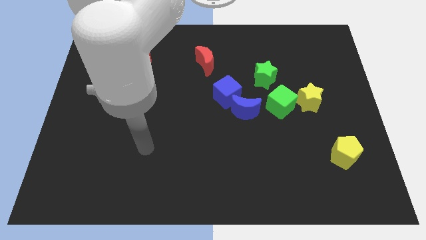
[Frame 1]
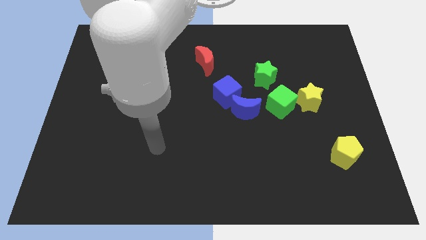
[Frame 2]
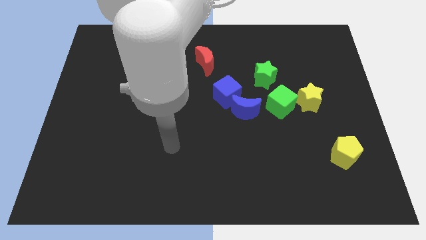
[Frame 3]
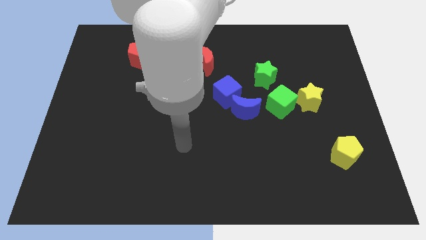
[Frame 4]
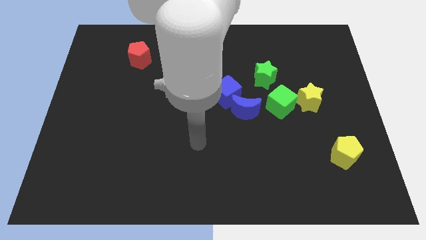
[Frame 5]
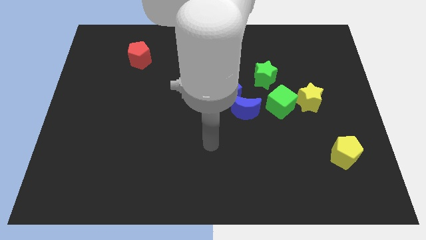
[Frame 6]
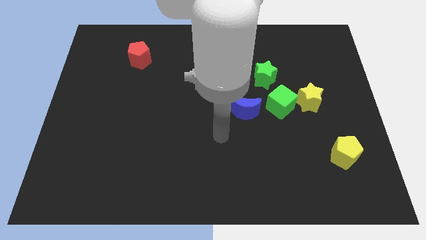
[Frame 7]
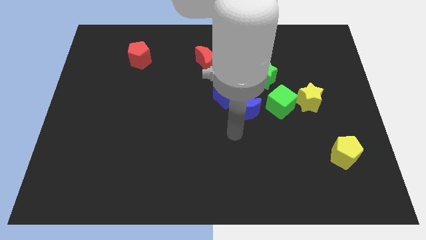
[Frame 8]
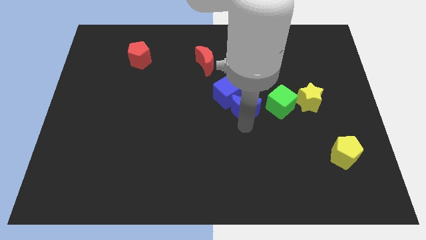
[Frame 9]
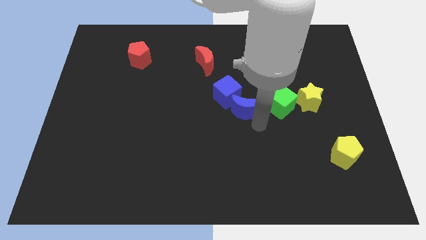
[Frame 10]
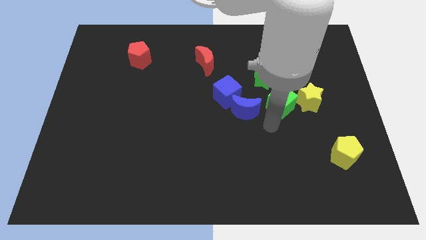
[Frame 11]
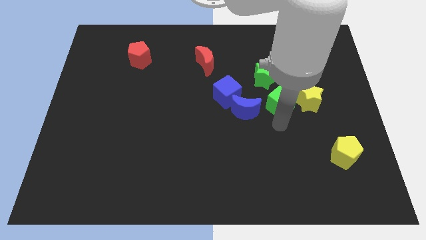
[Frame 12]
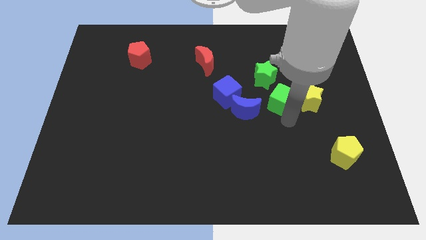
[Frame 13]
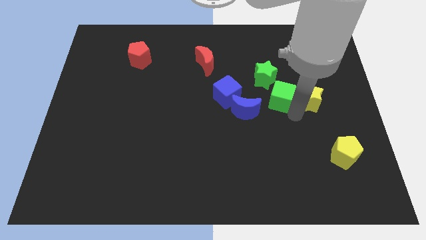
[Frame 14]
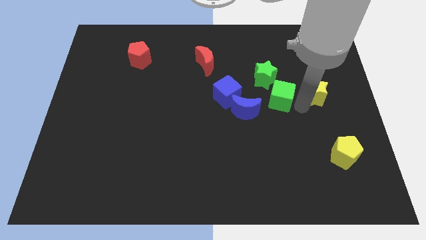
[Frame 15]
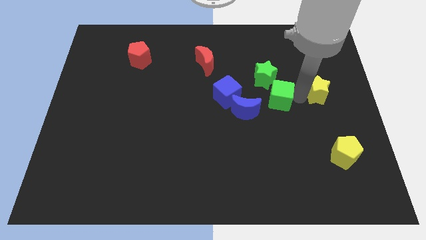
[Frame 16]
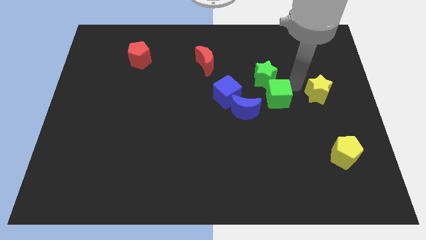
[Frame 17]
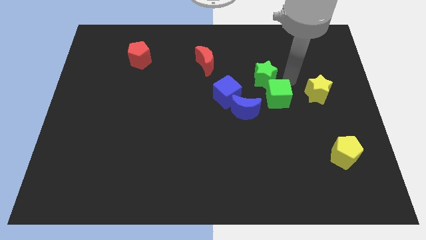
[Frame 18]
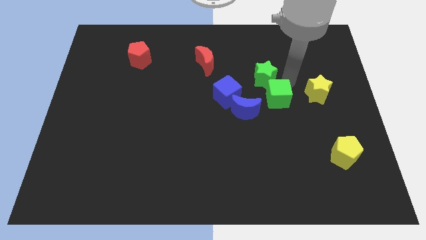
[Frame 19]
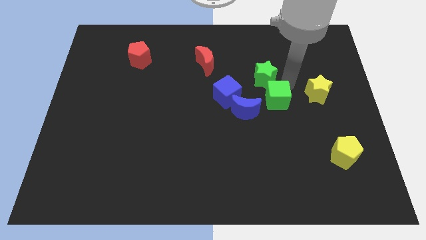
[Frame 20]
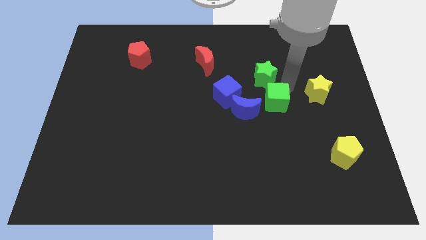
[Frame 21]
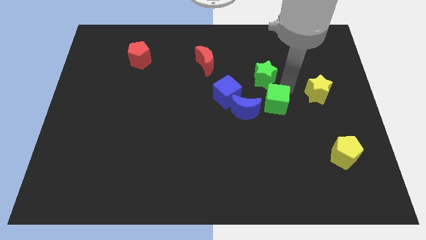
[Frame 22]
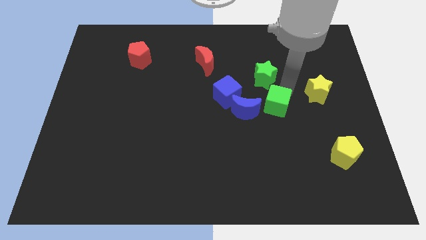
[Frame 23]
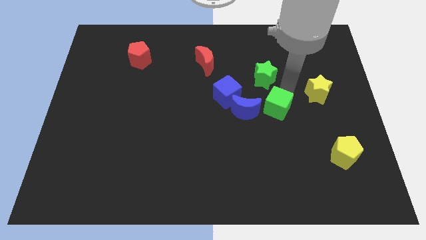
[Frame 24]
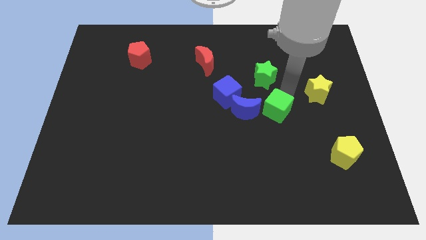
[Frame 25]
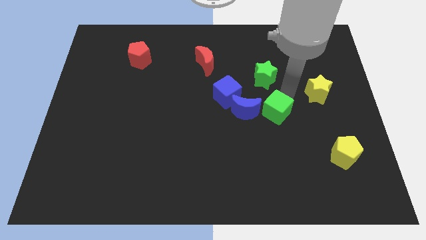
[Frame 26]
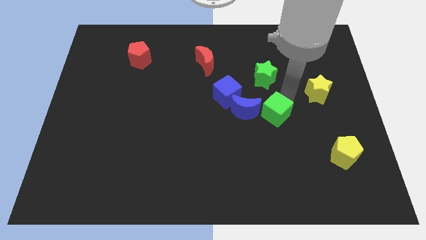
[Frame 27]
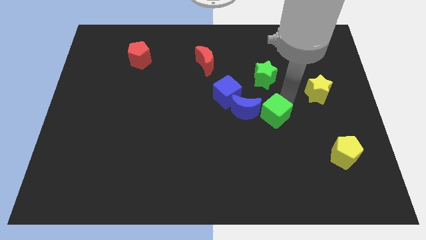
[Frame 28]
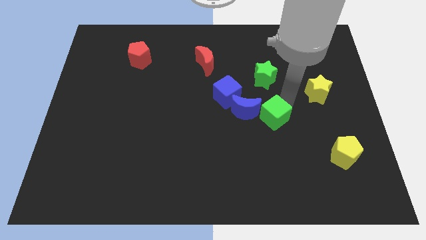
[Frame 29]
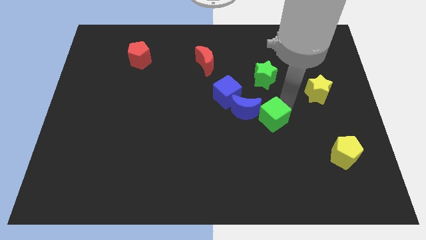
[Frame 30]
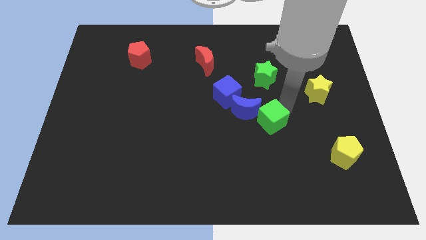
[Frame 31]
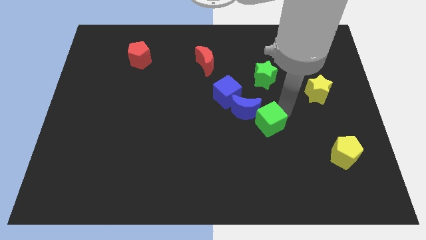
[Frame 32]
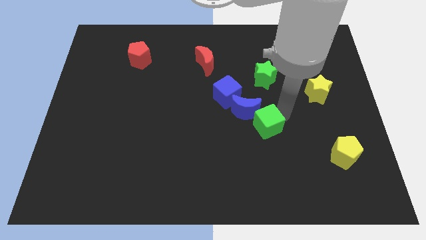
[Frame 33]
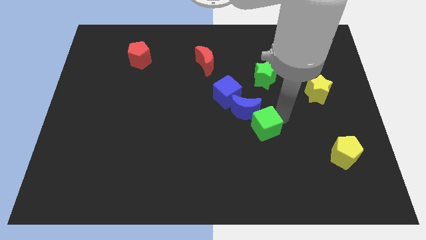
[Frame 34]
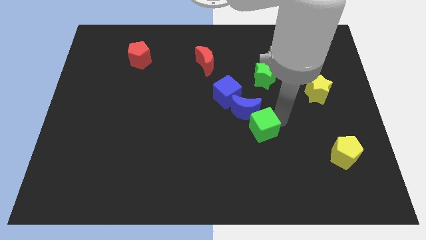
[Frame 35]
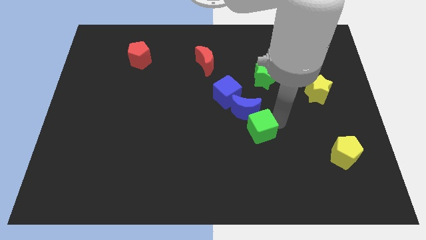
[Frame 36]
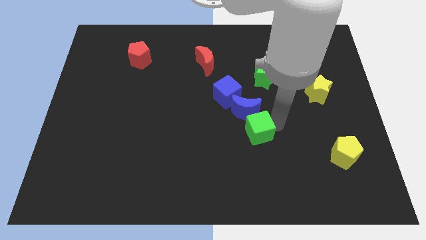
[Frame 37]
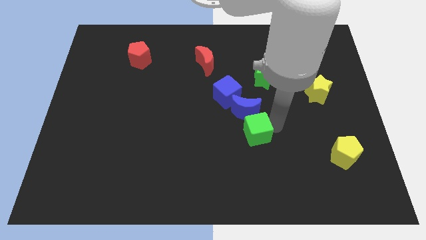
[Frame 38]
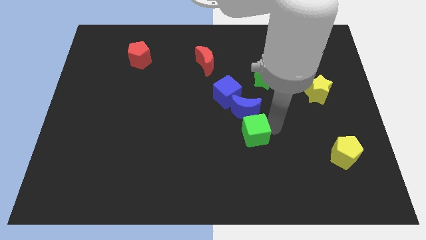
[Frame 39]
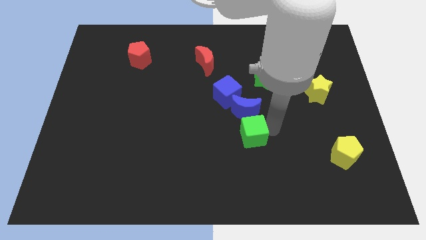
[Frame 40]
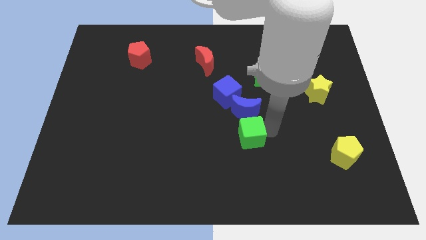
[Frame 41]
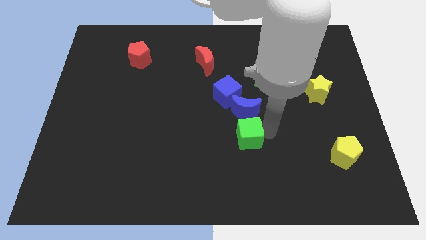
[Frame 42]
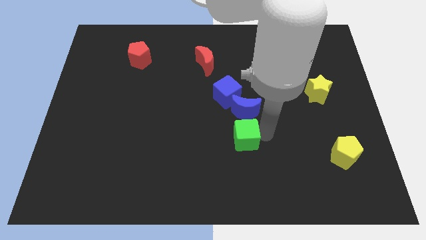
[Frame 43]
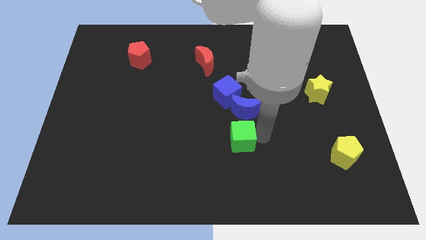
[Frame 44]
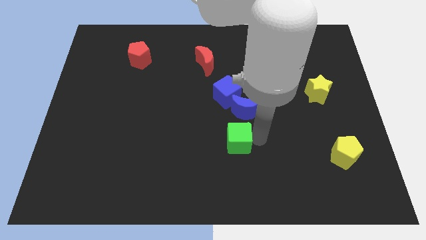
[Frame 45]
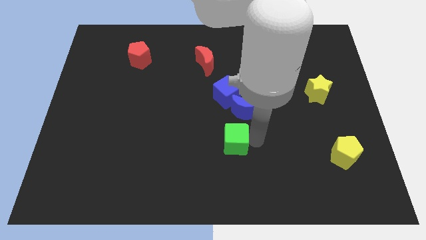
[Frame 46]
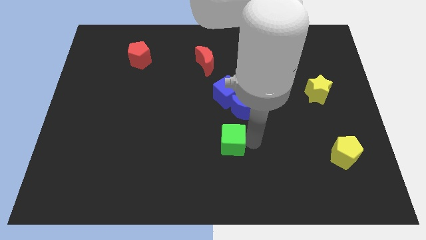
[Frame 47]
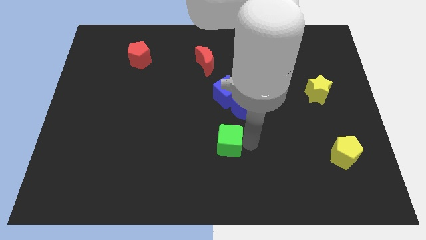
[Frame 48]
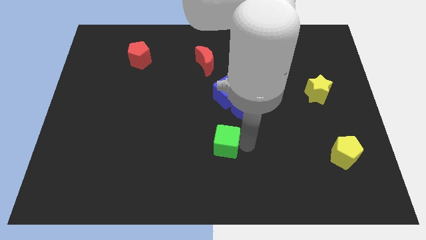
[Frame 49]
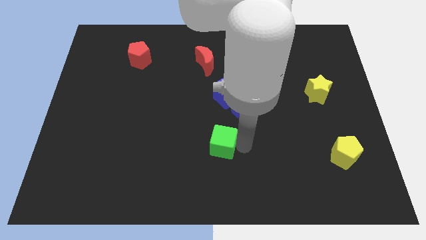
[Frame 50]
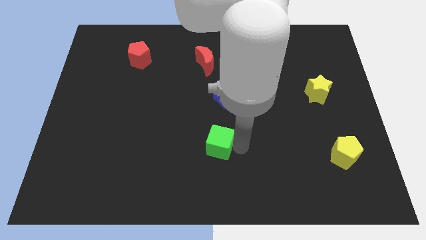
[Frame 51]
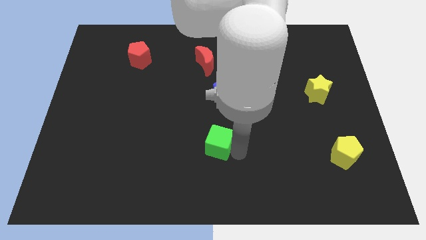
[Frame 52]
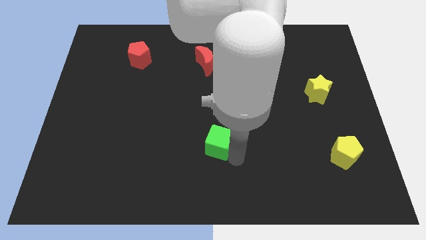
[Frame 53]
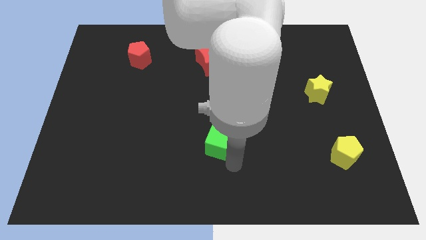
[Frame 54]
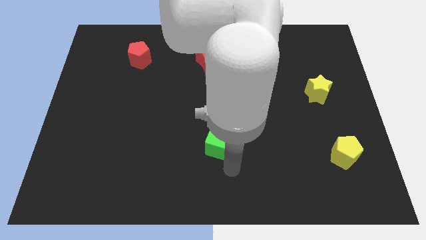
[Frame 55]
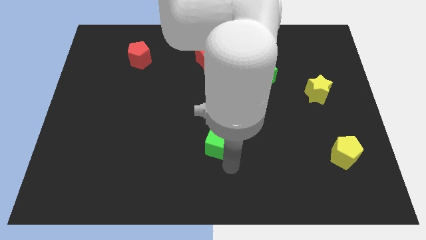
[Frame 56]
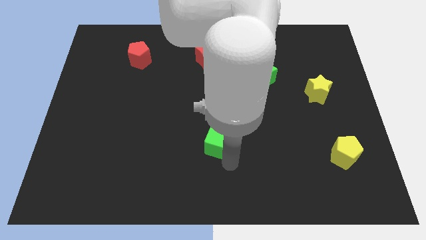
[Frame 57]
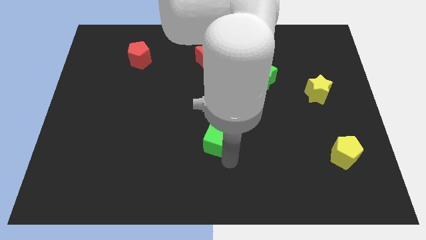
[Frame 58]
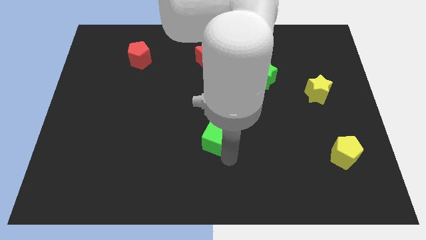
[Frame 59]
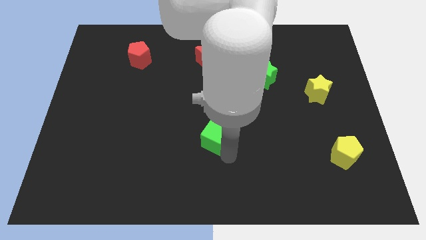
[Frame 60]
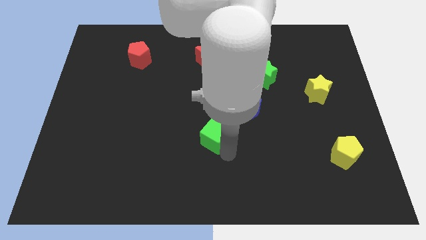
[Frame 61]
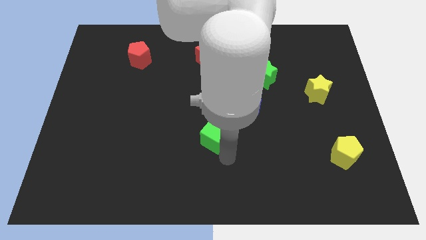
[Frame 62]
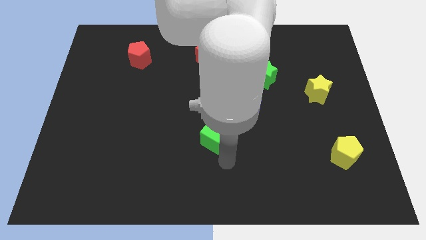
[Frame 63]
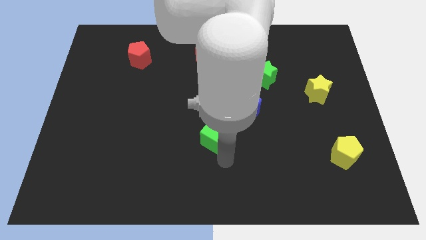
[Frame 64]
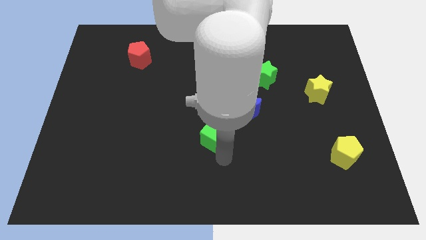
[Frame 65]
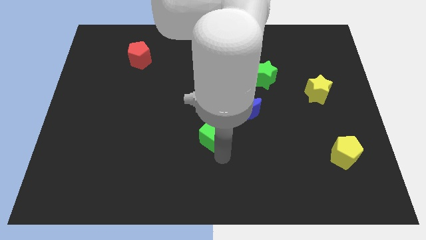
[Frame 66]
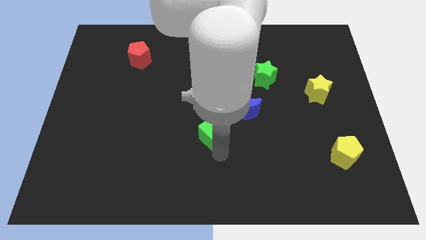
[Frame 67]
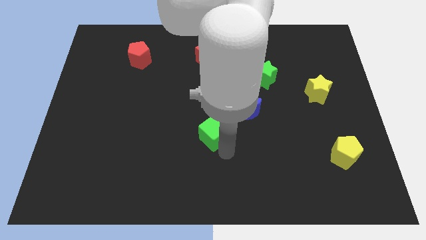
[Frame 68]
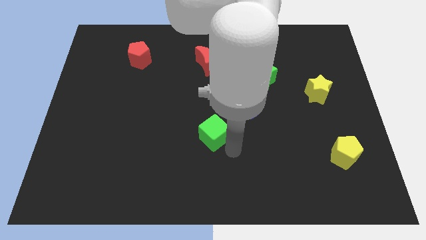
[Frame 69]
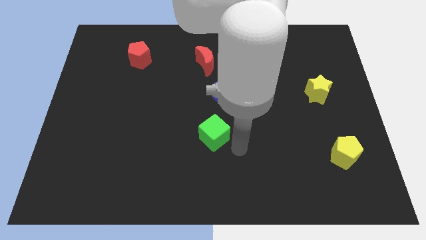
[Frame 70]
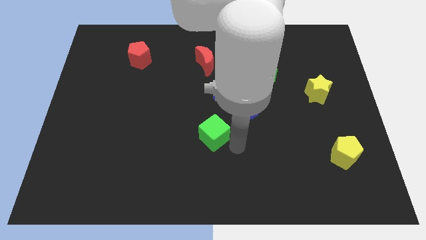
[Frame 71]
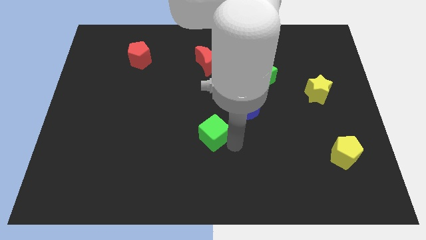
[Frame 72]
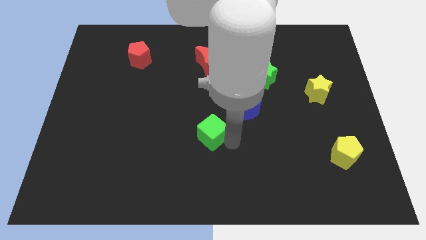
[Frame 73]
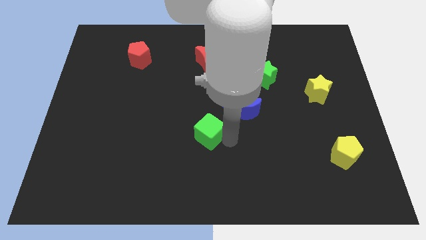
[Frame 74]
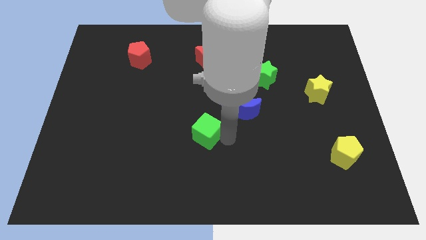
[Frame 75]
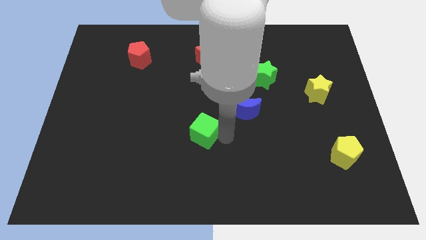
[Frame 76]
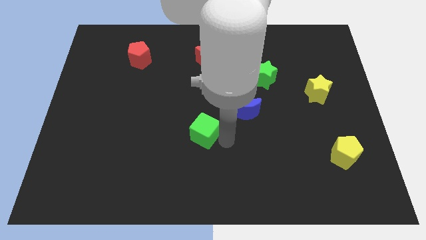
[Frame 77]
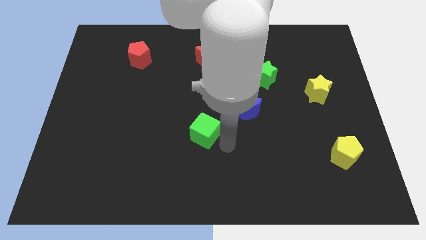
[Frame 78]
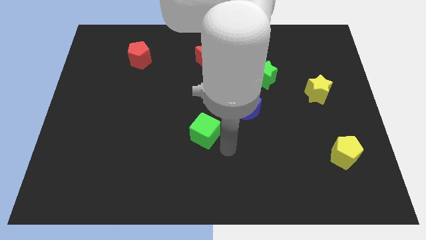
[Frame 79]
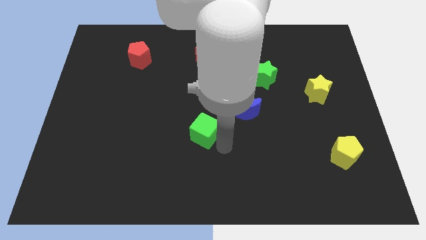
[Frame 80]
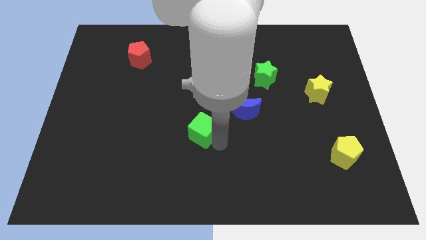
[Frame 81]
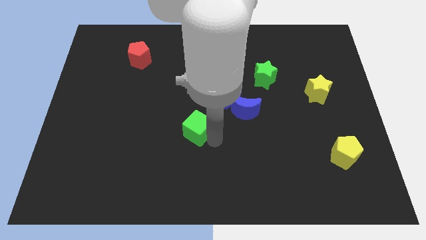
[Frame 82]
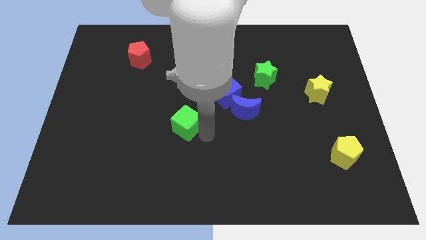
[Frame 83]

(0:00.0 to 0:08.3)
slide the green cube left

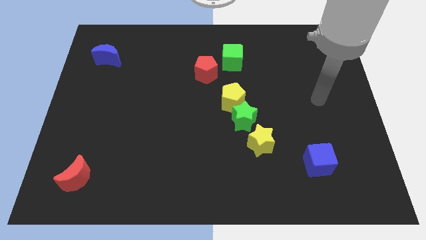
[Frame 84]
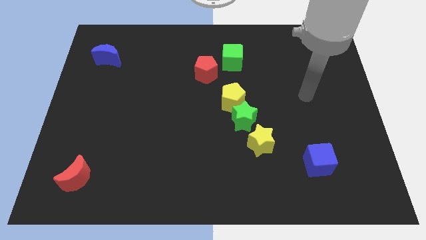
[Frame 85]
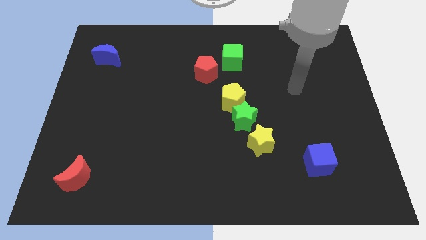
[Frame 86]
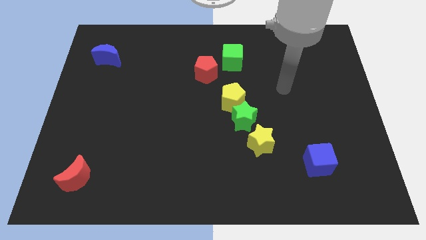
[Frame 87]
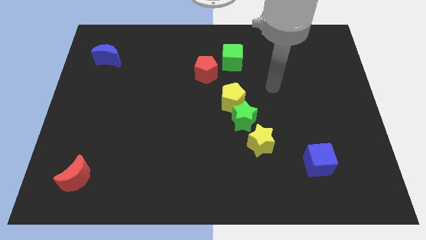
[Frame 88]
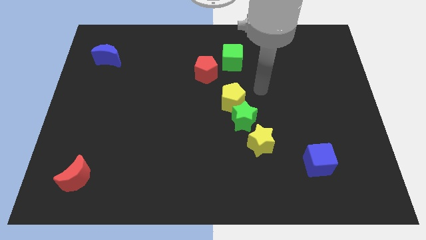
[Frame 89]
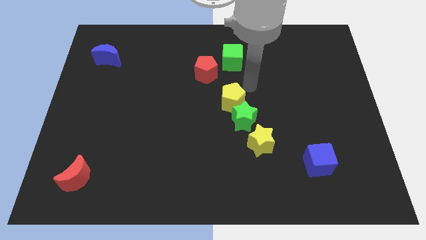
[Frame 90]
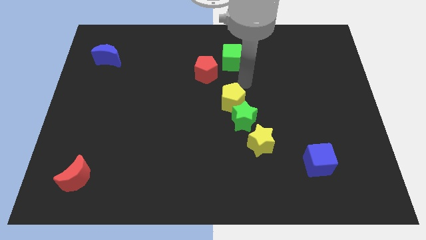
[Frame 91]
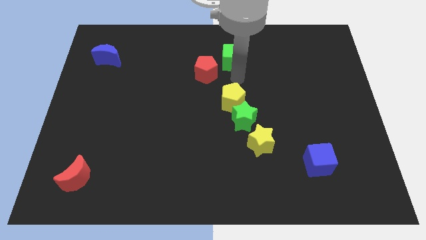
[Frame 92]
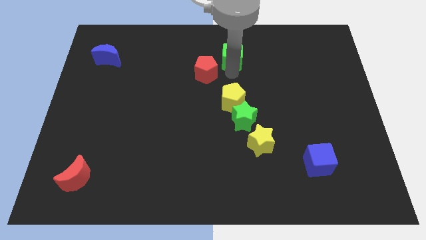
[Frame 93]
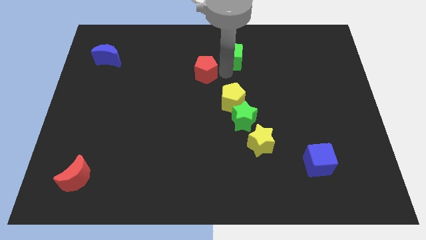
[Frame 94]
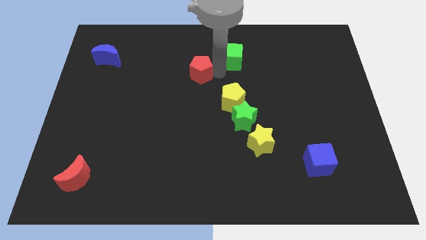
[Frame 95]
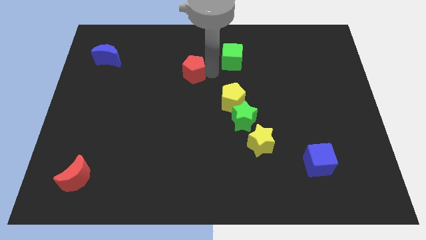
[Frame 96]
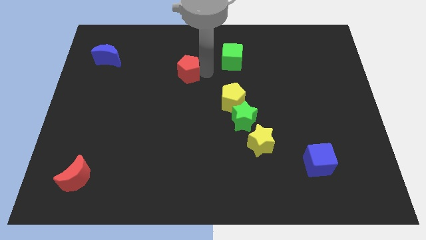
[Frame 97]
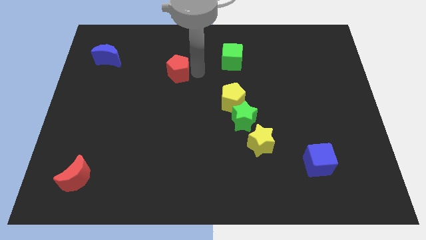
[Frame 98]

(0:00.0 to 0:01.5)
slide the red pentagon left somewhat
